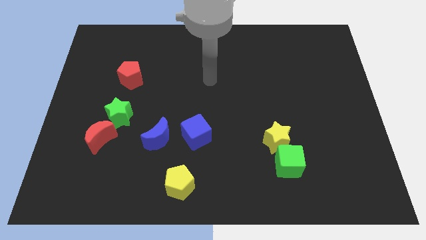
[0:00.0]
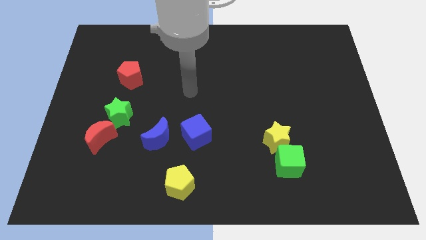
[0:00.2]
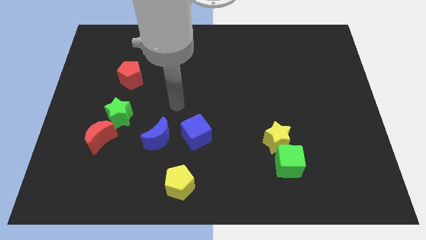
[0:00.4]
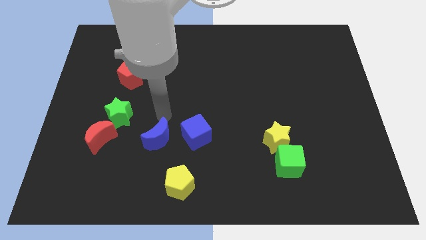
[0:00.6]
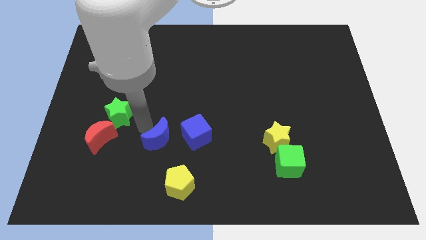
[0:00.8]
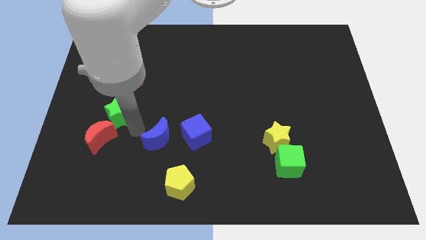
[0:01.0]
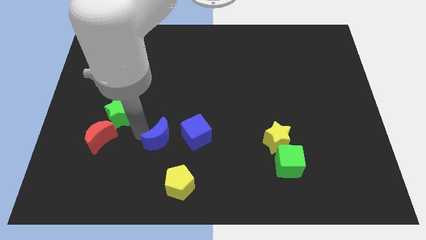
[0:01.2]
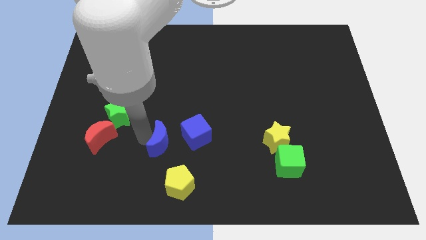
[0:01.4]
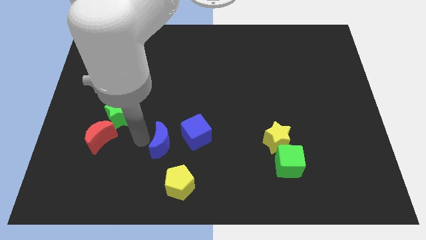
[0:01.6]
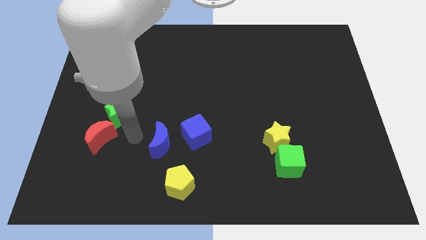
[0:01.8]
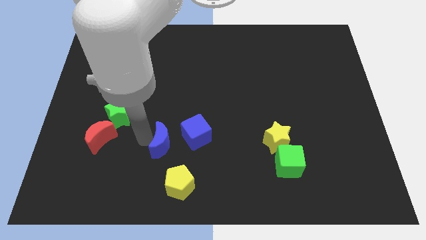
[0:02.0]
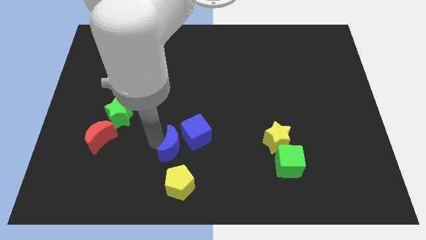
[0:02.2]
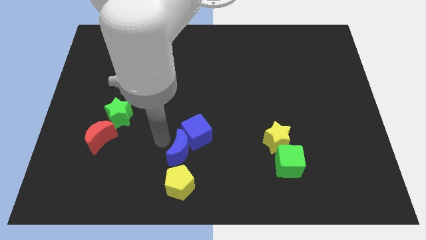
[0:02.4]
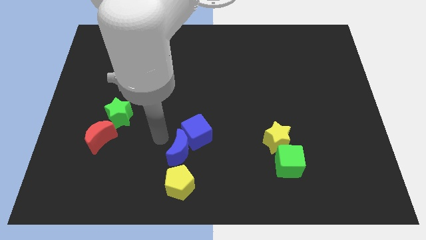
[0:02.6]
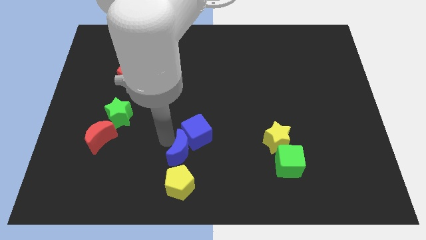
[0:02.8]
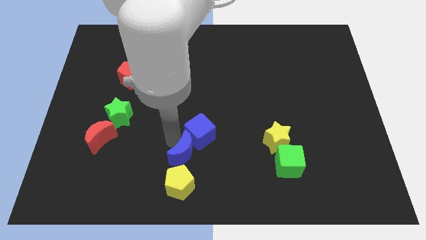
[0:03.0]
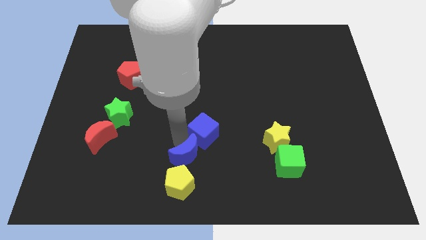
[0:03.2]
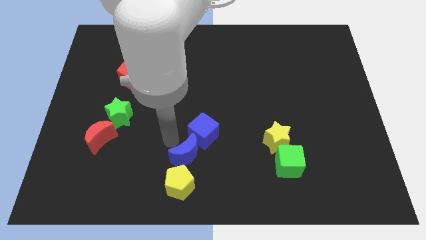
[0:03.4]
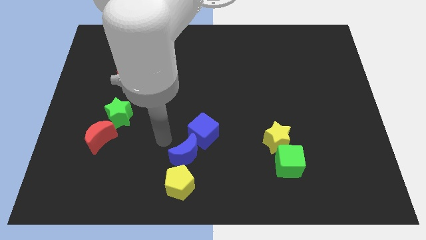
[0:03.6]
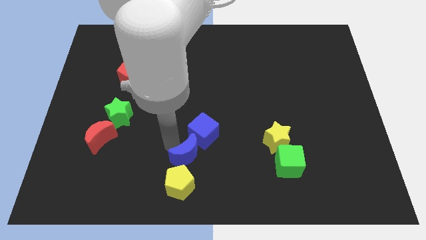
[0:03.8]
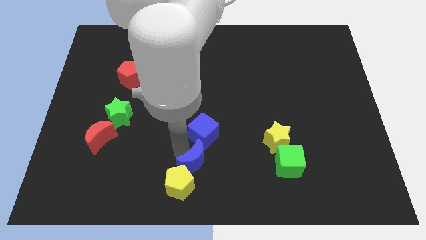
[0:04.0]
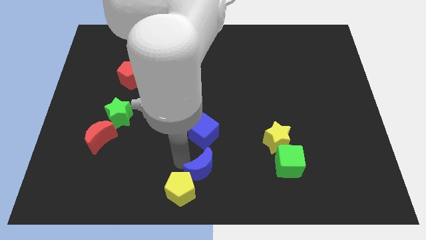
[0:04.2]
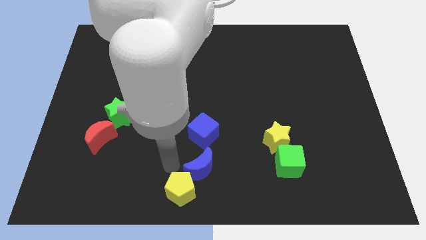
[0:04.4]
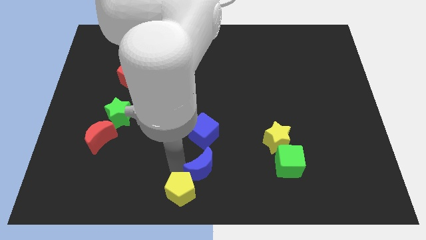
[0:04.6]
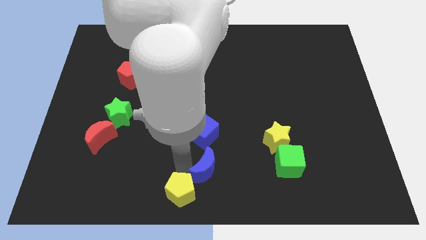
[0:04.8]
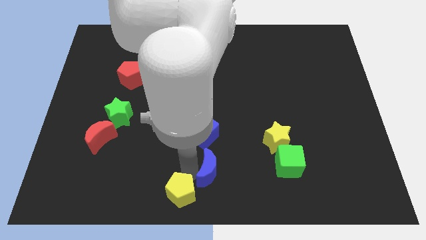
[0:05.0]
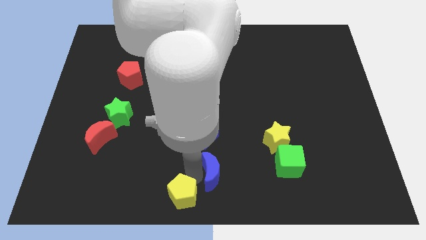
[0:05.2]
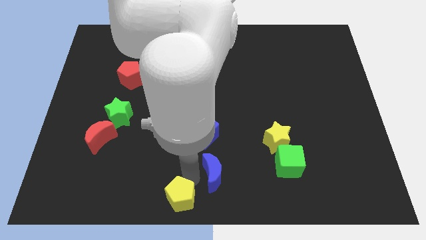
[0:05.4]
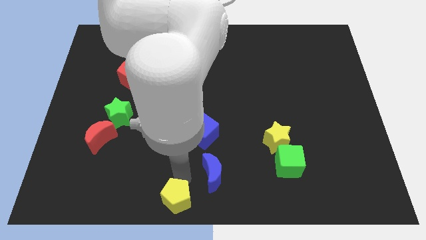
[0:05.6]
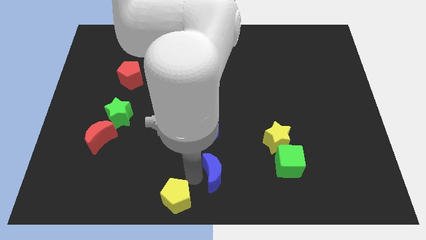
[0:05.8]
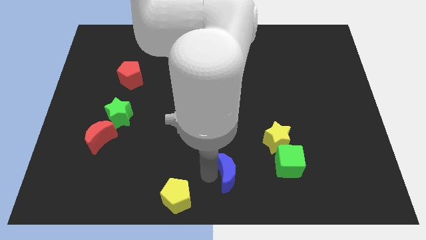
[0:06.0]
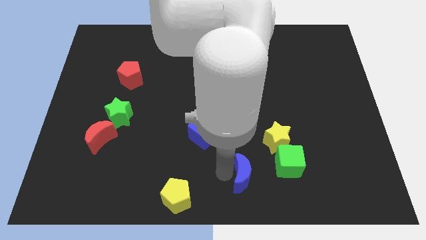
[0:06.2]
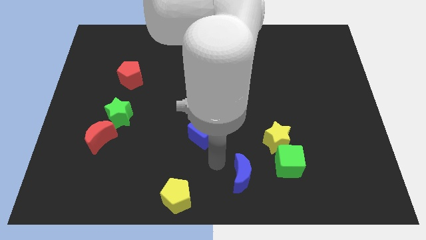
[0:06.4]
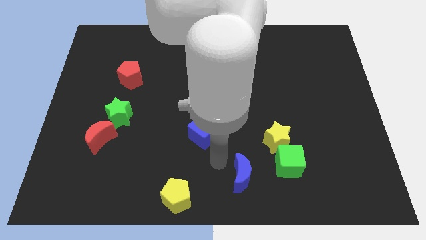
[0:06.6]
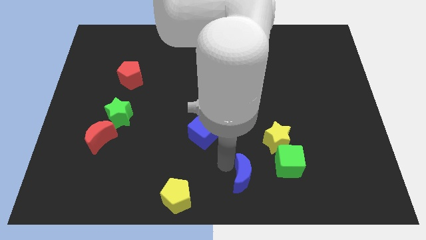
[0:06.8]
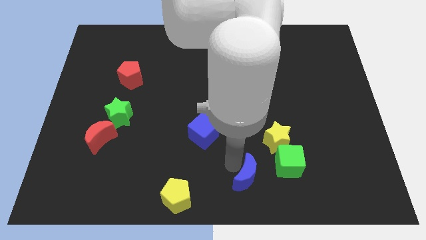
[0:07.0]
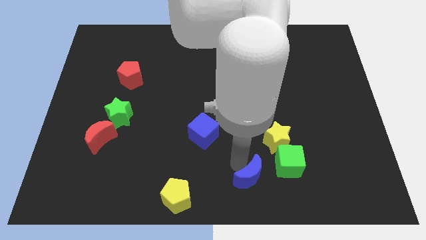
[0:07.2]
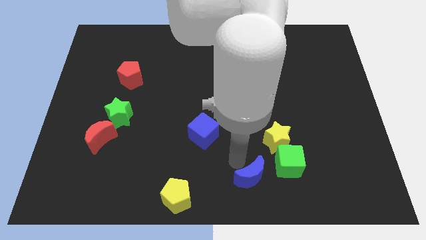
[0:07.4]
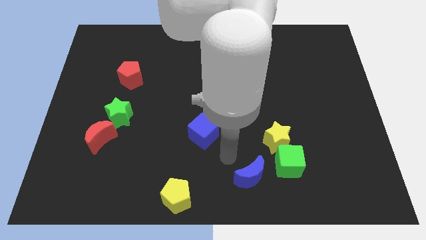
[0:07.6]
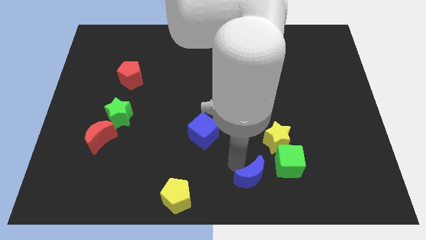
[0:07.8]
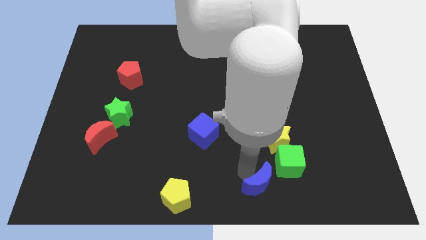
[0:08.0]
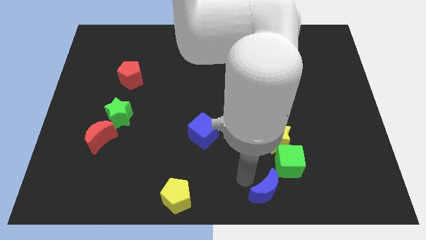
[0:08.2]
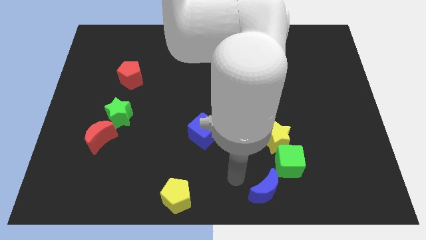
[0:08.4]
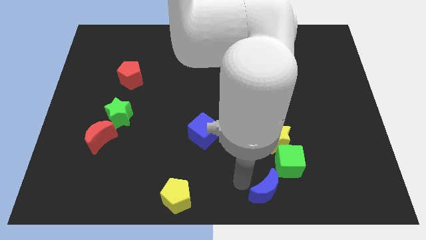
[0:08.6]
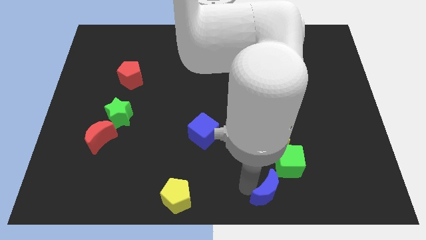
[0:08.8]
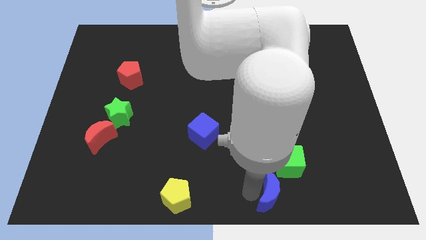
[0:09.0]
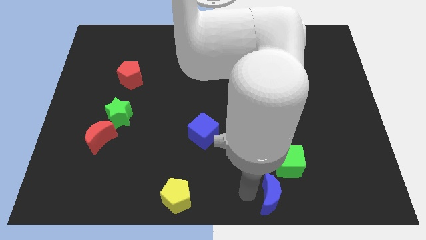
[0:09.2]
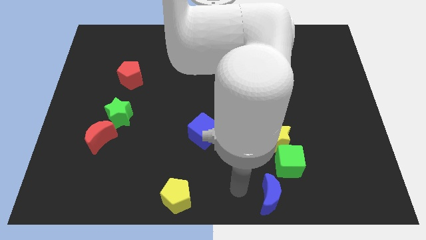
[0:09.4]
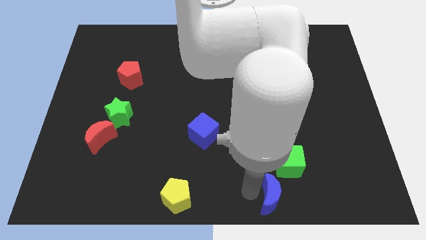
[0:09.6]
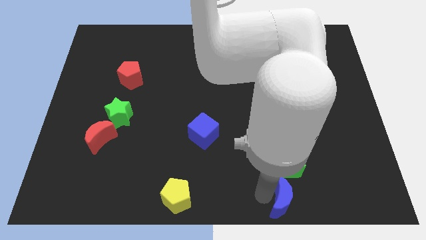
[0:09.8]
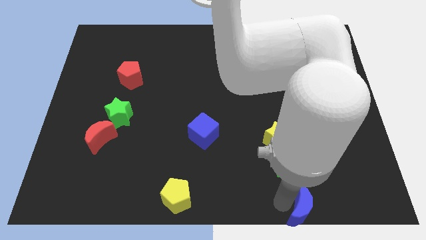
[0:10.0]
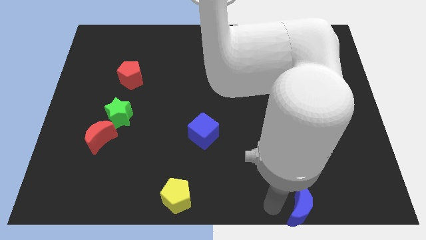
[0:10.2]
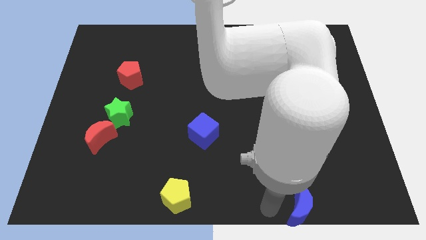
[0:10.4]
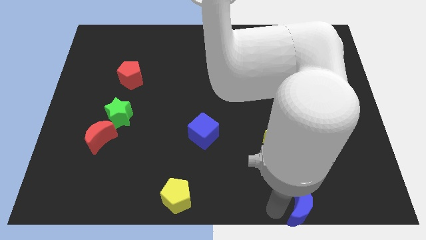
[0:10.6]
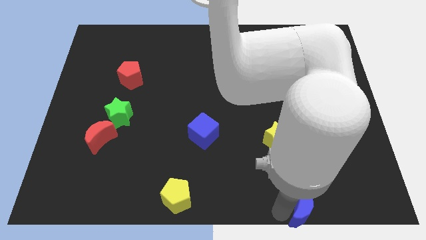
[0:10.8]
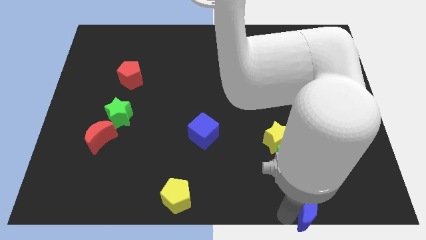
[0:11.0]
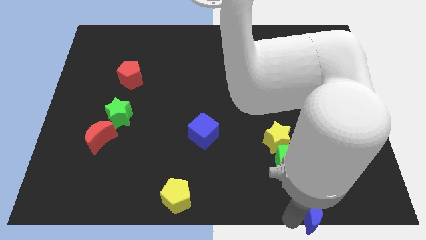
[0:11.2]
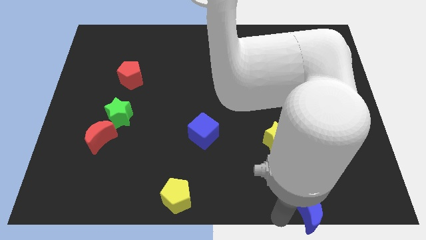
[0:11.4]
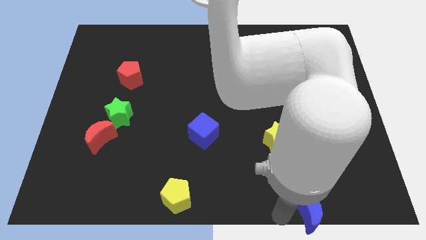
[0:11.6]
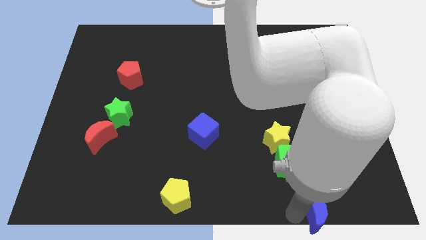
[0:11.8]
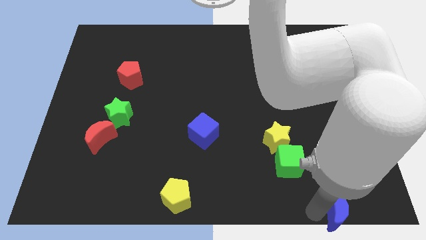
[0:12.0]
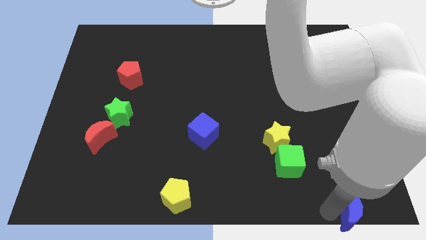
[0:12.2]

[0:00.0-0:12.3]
move the blue moon to the bottom right corner
